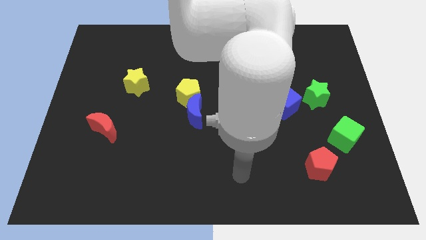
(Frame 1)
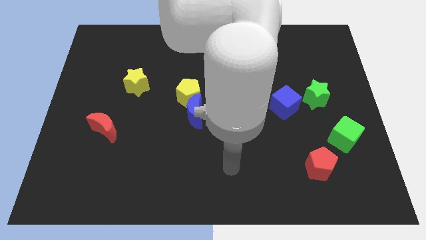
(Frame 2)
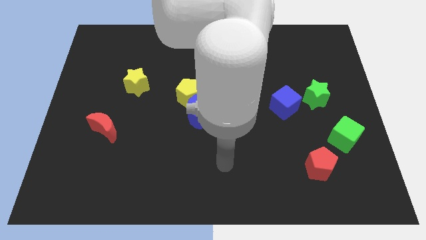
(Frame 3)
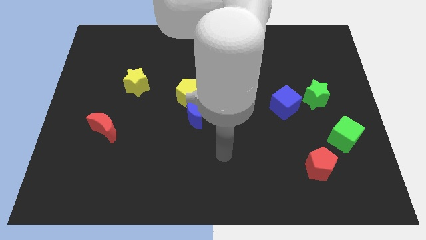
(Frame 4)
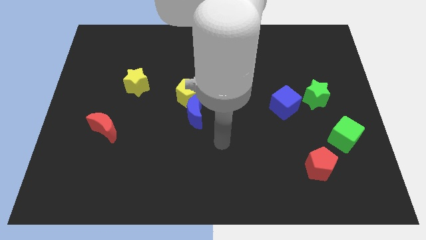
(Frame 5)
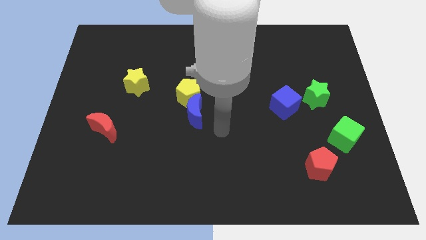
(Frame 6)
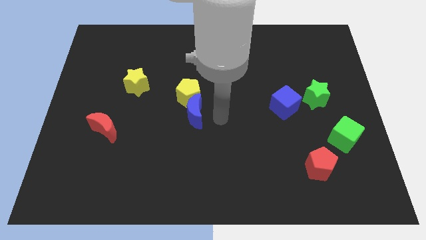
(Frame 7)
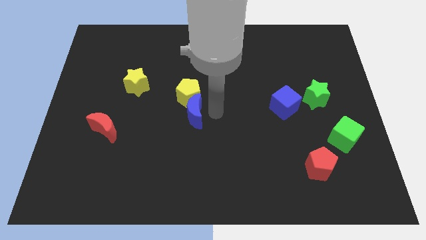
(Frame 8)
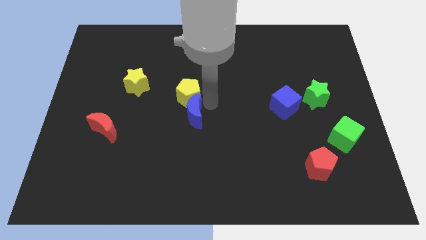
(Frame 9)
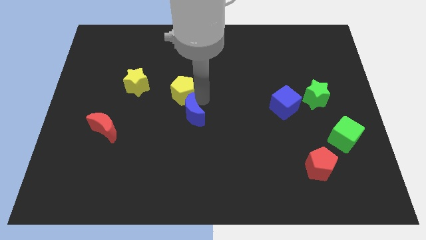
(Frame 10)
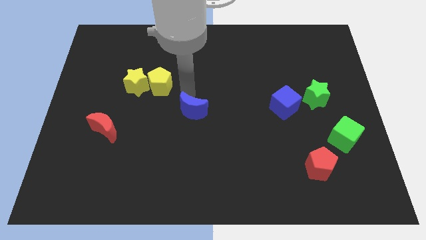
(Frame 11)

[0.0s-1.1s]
move the blue moon away from the yellow pentagon

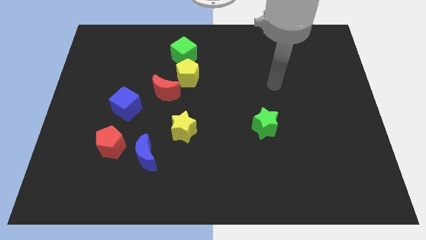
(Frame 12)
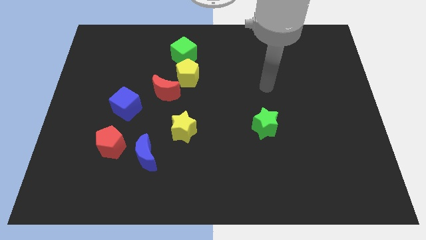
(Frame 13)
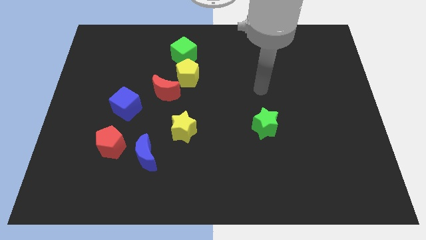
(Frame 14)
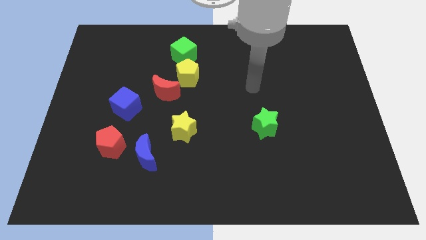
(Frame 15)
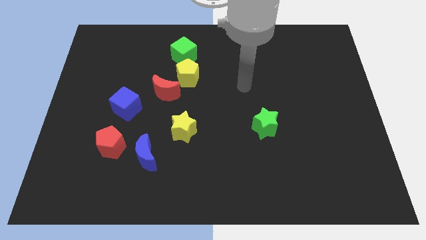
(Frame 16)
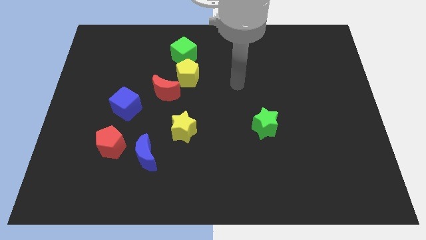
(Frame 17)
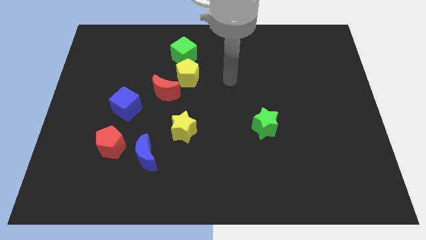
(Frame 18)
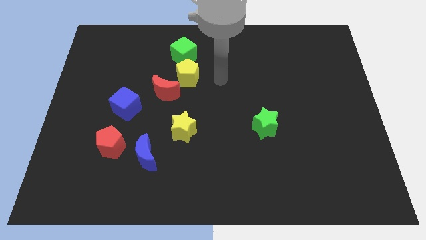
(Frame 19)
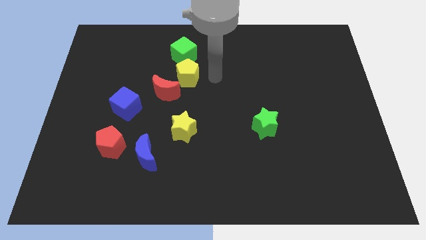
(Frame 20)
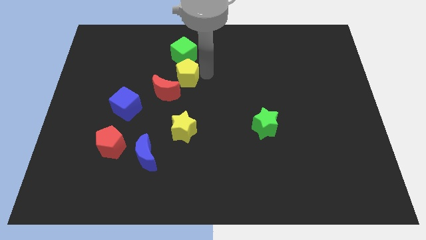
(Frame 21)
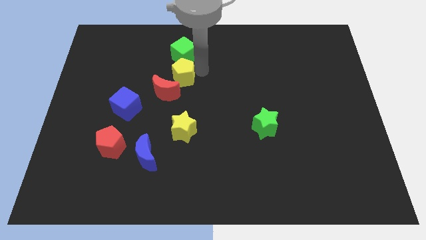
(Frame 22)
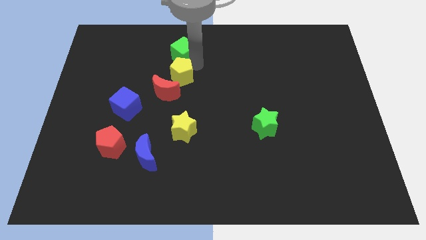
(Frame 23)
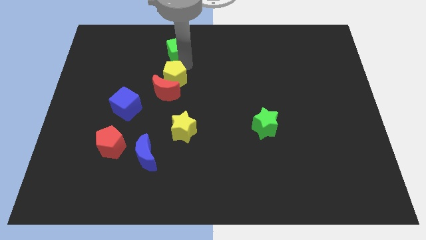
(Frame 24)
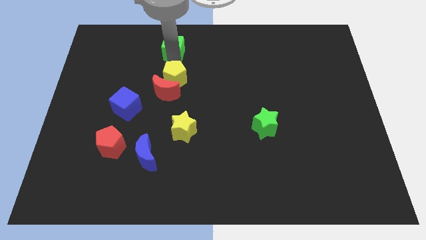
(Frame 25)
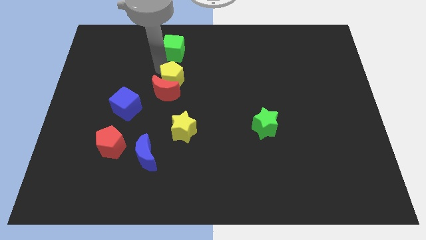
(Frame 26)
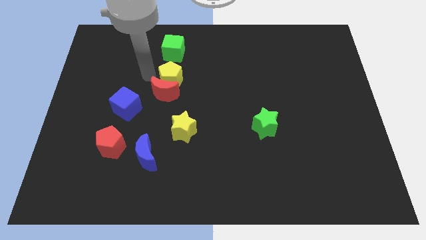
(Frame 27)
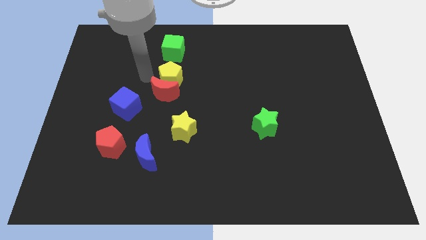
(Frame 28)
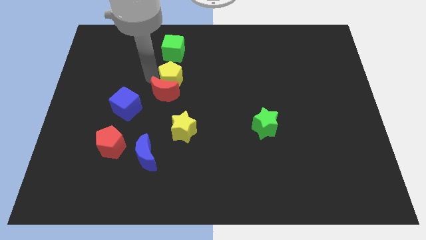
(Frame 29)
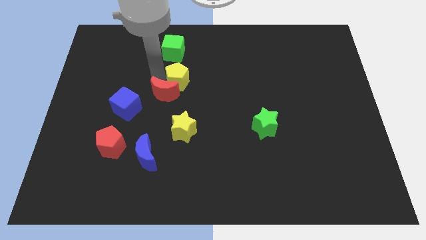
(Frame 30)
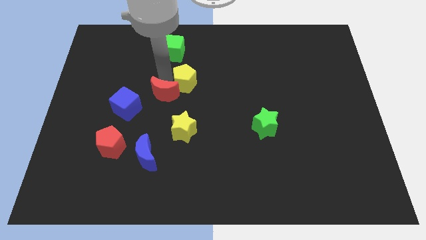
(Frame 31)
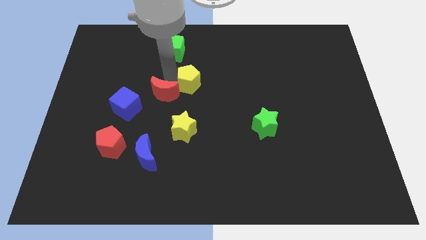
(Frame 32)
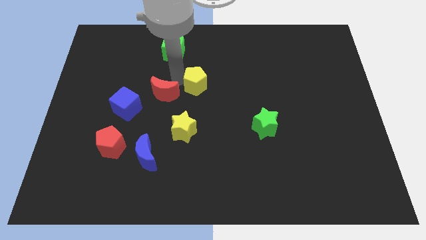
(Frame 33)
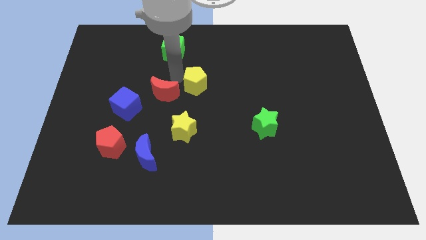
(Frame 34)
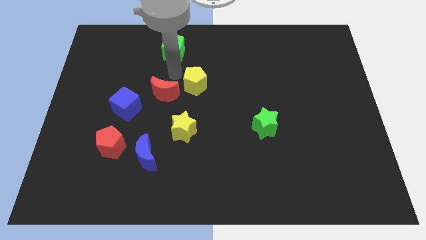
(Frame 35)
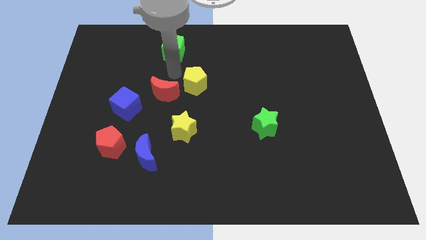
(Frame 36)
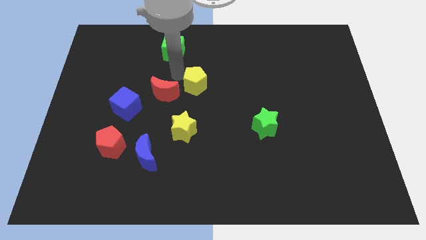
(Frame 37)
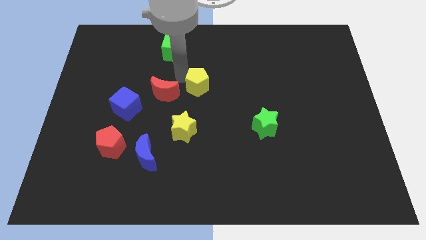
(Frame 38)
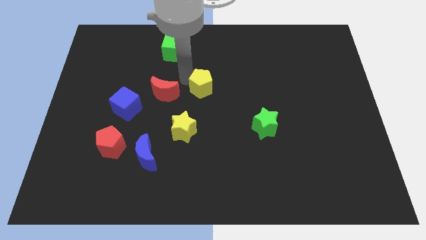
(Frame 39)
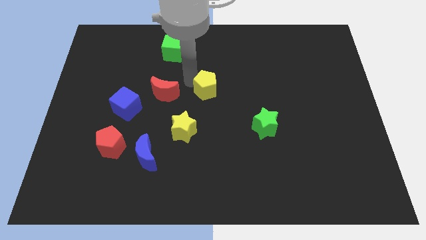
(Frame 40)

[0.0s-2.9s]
move the yellow pentagon away from the red moon and green cube

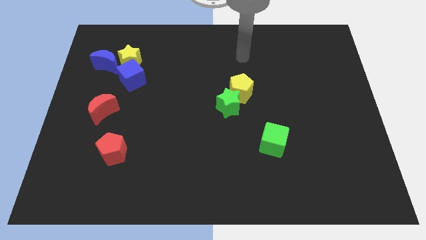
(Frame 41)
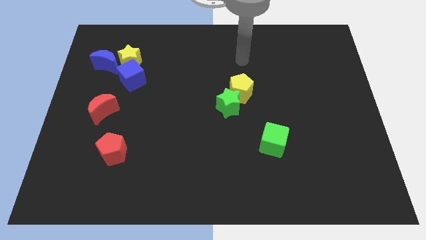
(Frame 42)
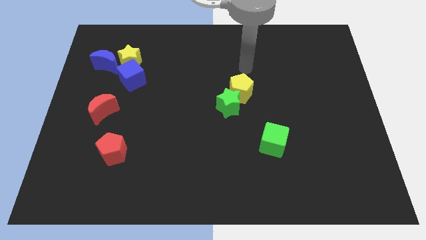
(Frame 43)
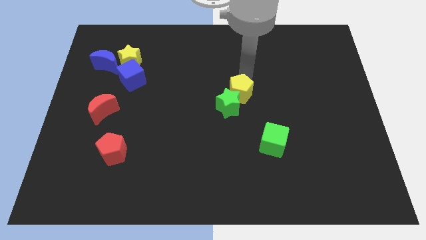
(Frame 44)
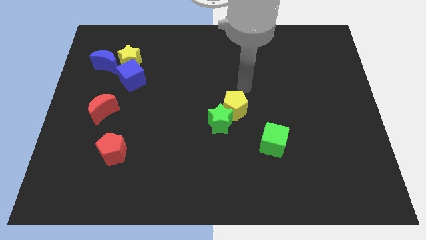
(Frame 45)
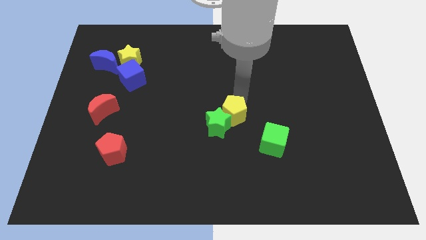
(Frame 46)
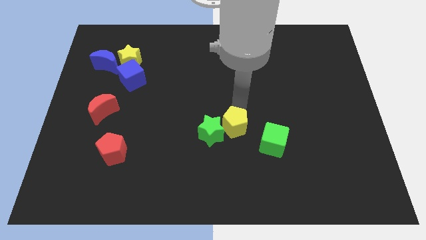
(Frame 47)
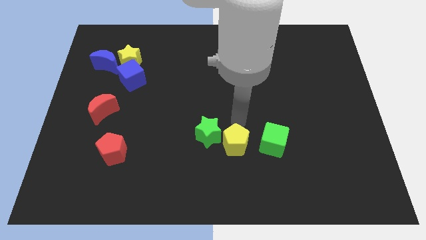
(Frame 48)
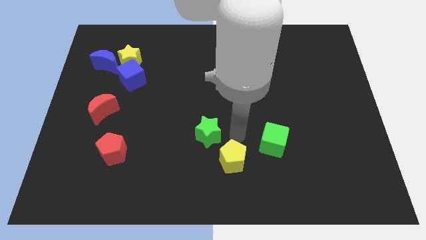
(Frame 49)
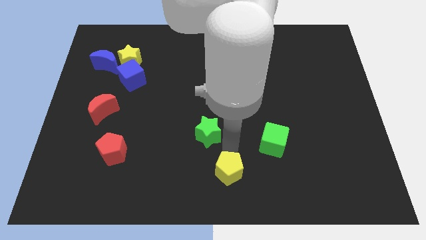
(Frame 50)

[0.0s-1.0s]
pull the green star apart from the yellow pentagon

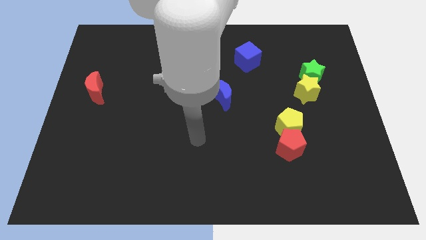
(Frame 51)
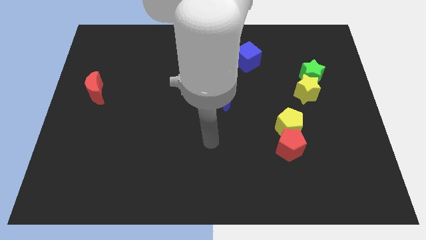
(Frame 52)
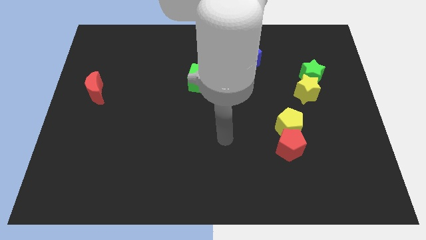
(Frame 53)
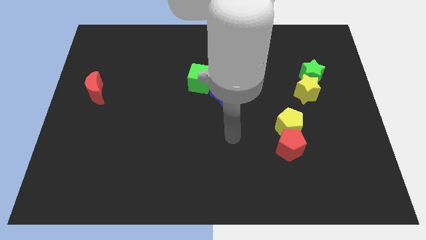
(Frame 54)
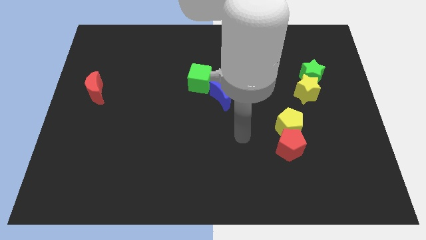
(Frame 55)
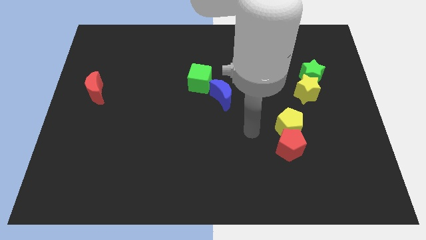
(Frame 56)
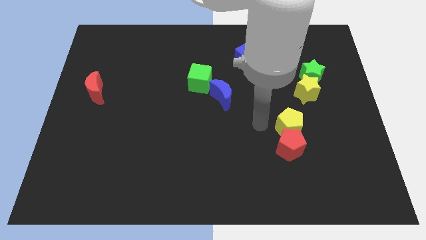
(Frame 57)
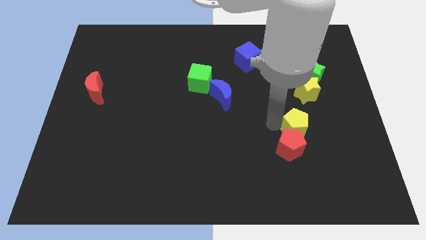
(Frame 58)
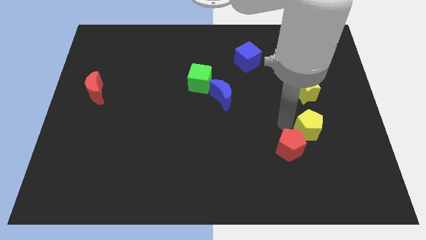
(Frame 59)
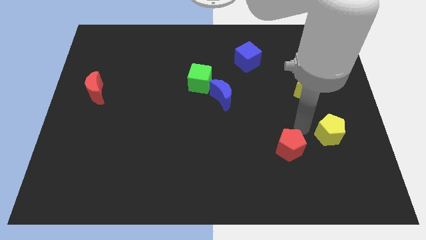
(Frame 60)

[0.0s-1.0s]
separate the red pentagon from the yellow pentagon

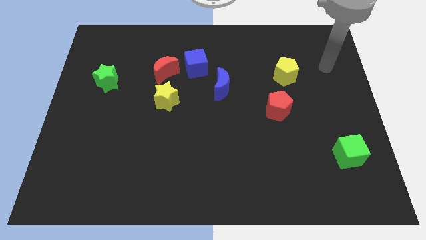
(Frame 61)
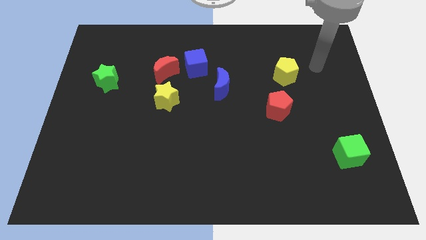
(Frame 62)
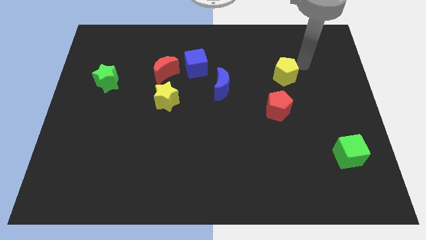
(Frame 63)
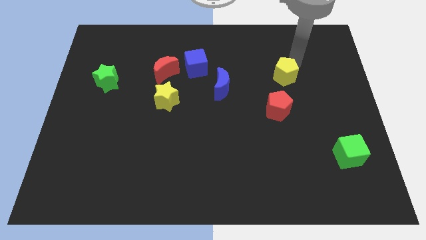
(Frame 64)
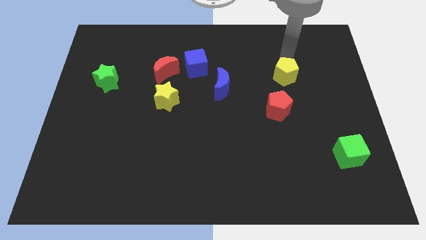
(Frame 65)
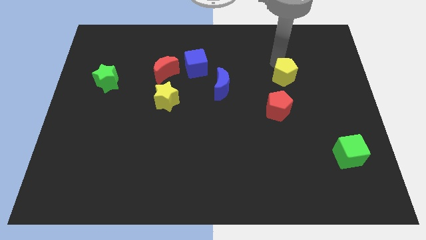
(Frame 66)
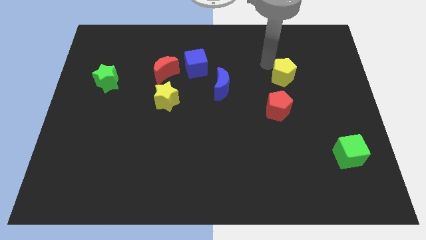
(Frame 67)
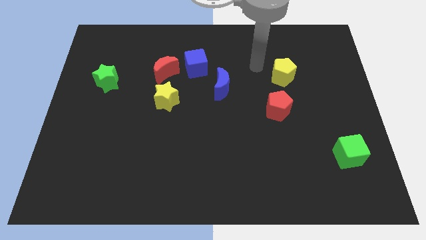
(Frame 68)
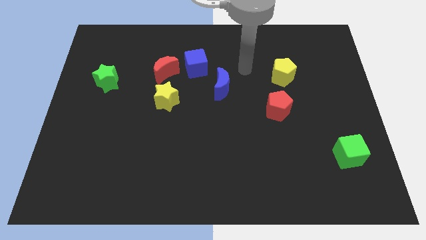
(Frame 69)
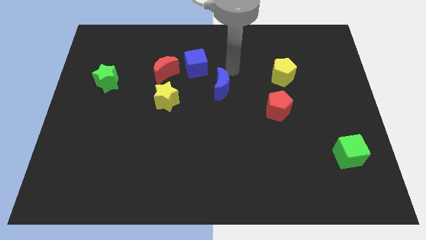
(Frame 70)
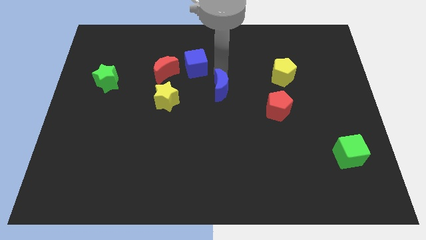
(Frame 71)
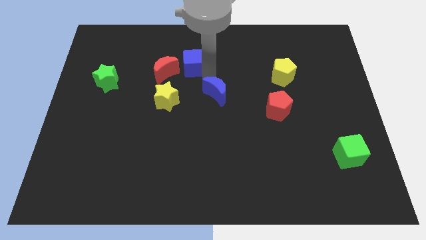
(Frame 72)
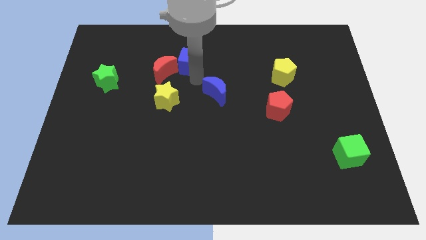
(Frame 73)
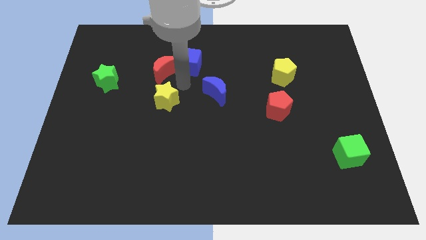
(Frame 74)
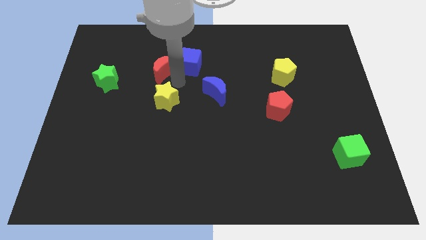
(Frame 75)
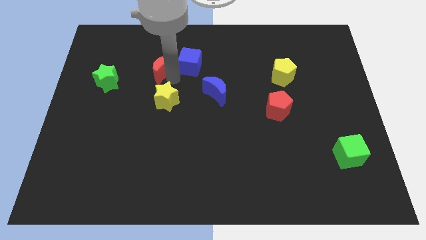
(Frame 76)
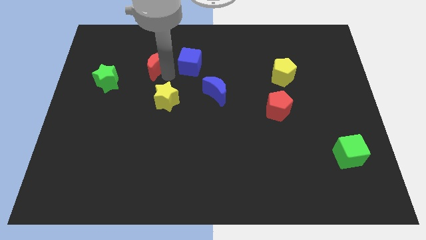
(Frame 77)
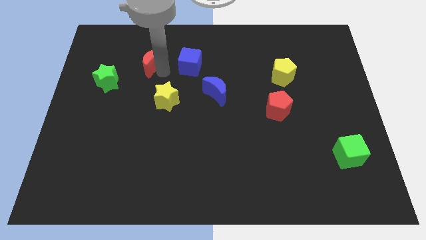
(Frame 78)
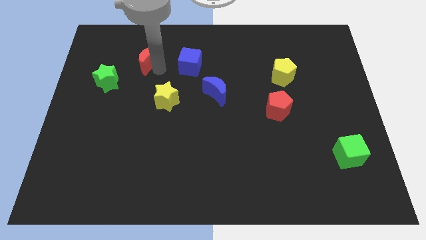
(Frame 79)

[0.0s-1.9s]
separate the red moon from the blue cube and yellow star

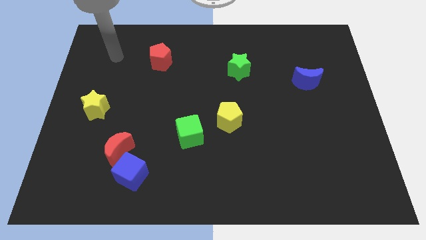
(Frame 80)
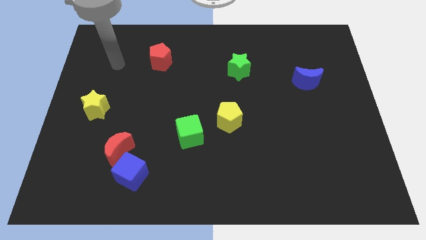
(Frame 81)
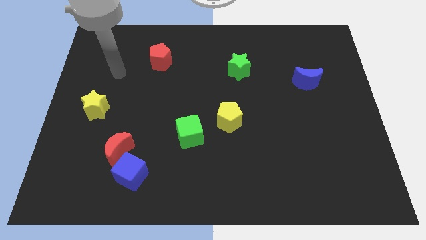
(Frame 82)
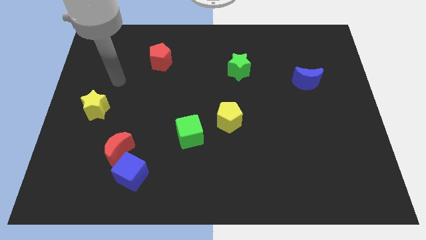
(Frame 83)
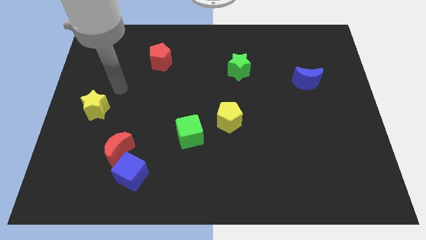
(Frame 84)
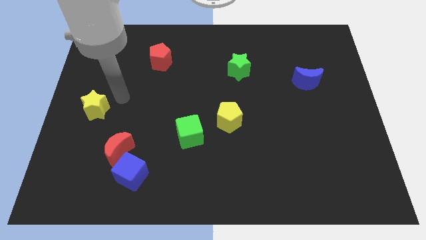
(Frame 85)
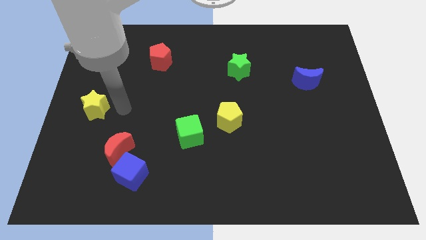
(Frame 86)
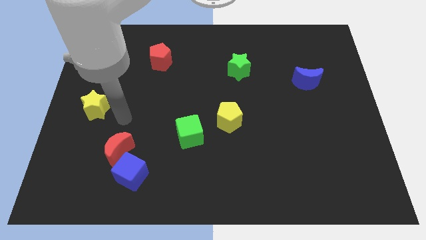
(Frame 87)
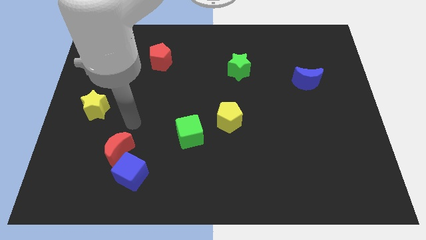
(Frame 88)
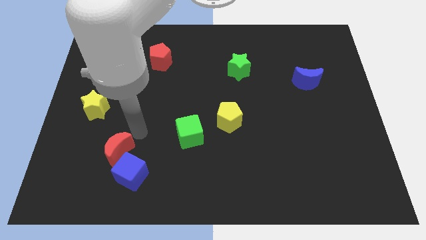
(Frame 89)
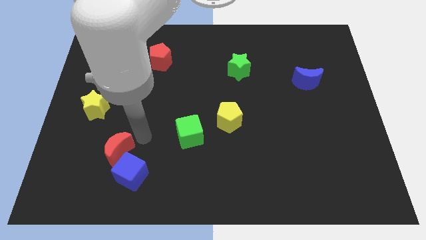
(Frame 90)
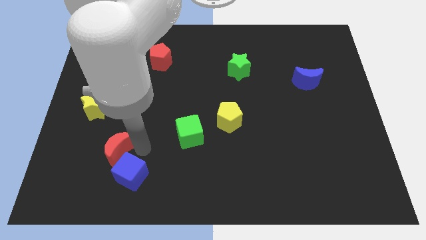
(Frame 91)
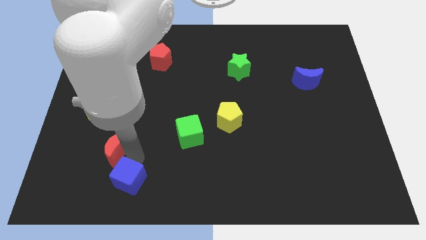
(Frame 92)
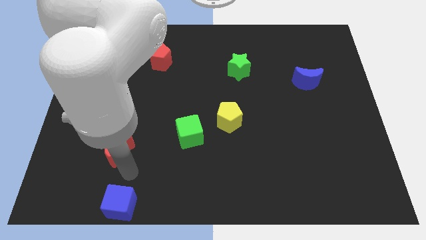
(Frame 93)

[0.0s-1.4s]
pull the red moon apart from the blue cube
